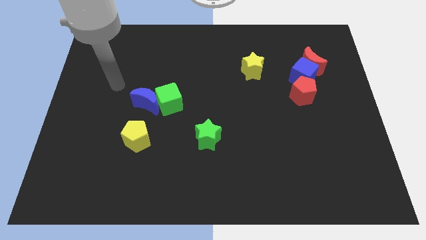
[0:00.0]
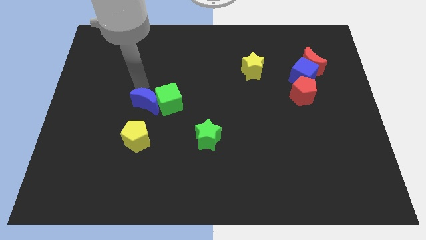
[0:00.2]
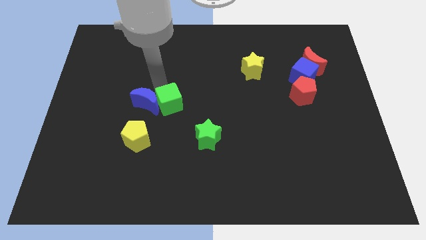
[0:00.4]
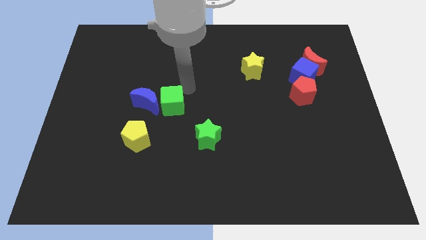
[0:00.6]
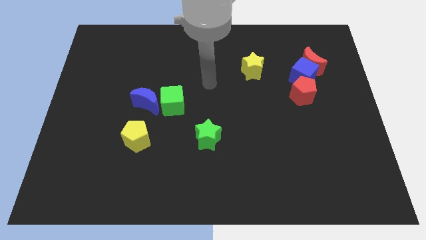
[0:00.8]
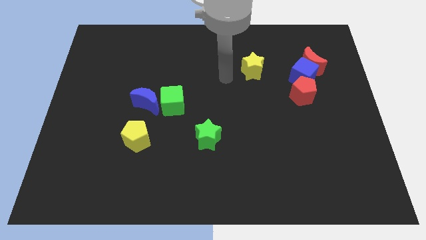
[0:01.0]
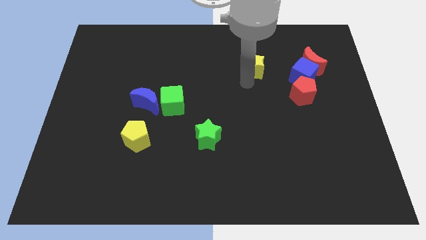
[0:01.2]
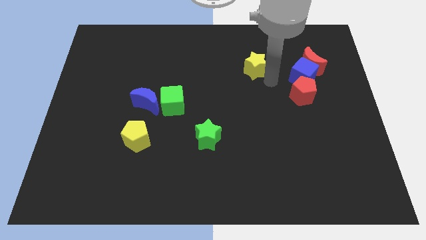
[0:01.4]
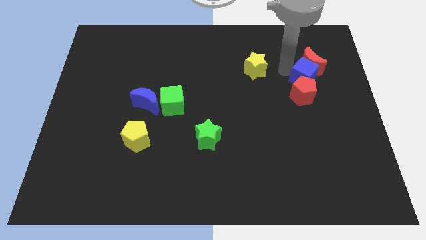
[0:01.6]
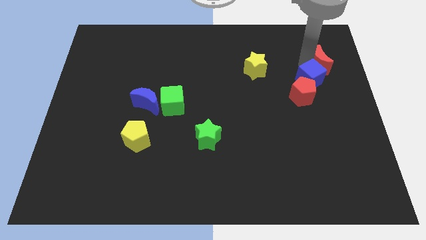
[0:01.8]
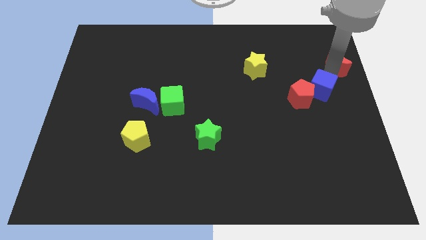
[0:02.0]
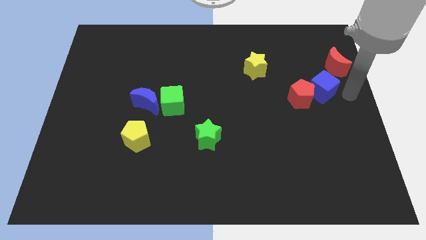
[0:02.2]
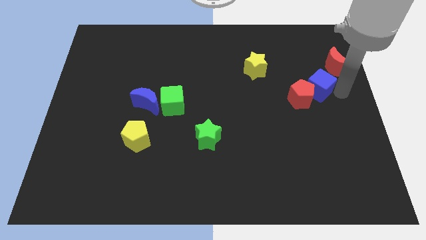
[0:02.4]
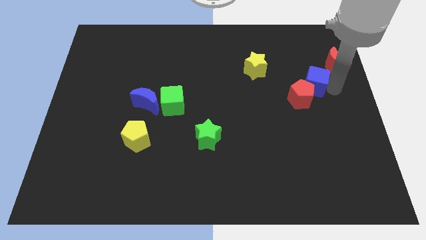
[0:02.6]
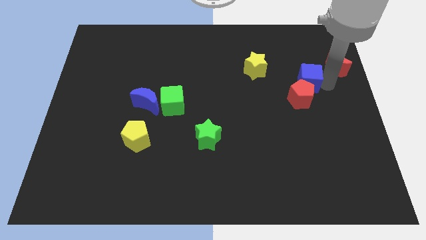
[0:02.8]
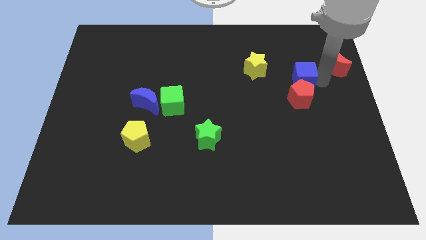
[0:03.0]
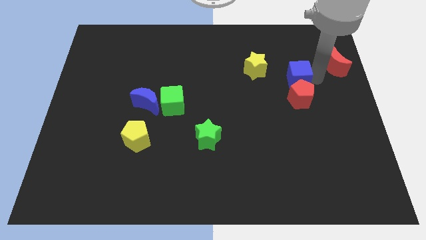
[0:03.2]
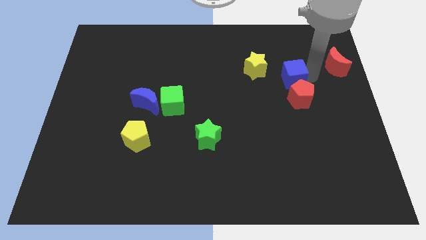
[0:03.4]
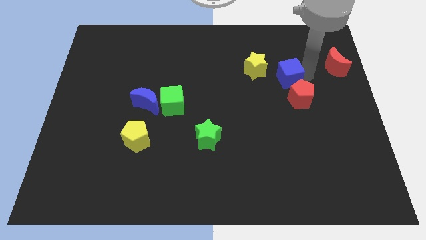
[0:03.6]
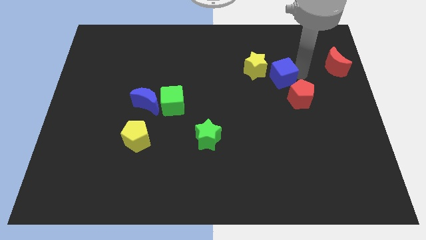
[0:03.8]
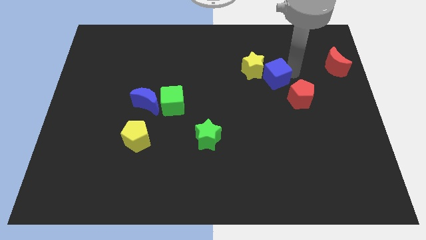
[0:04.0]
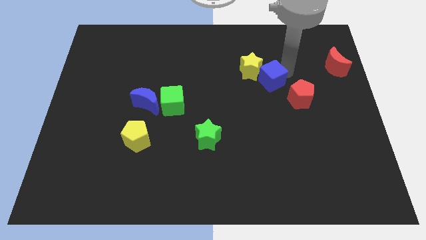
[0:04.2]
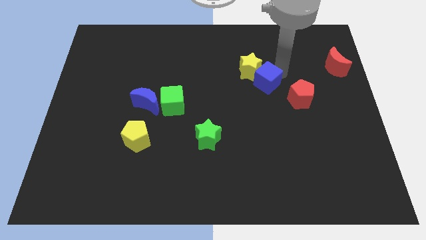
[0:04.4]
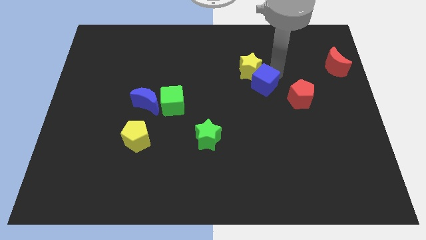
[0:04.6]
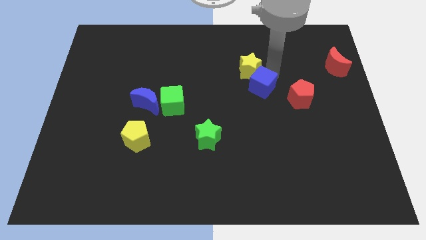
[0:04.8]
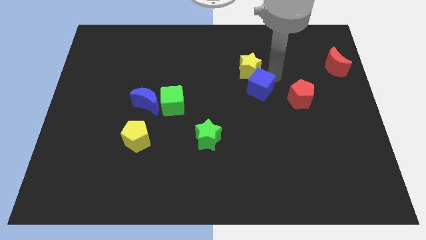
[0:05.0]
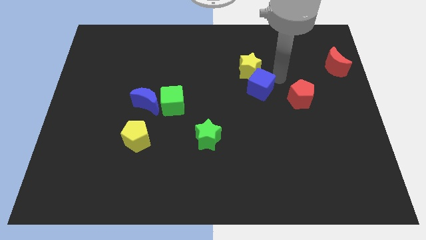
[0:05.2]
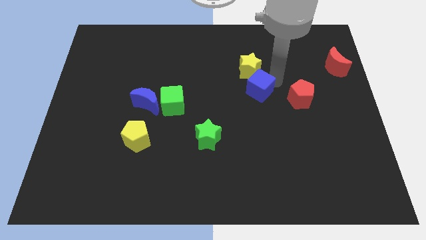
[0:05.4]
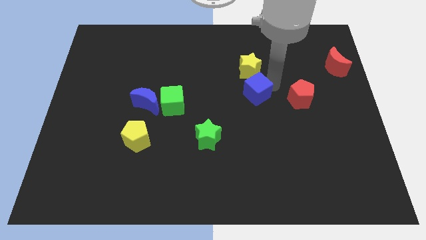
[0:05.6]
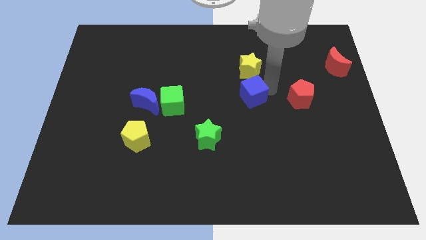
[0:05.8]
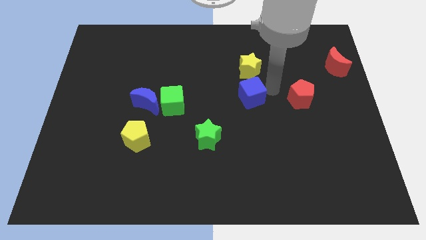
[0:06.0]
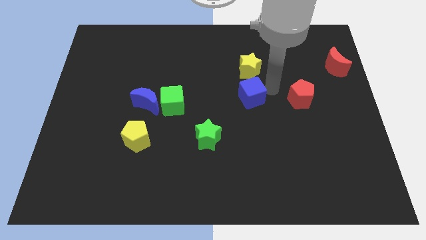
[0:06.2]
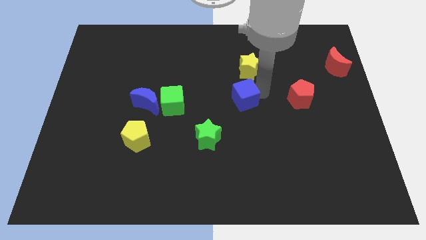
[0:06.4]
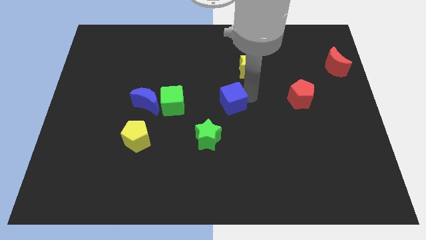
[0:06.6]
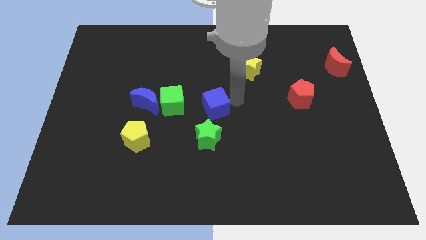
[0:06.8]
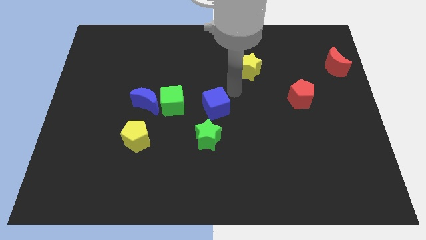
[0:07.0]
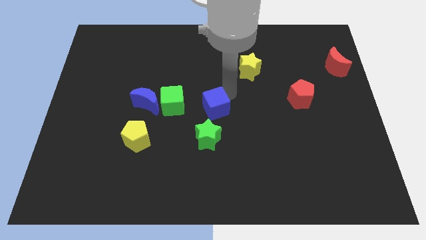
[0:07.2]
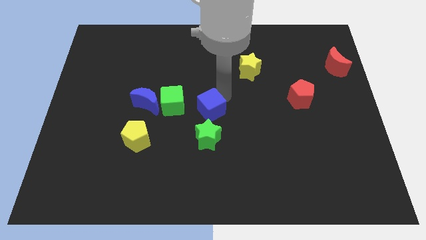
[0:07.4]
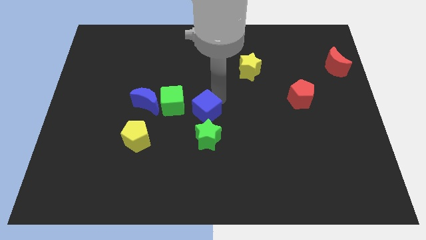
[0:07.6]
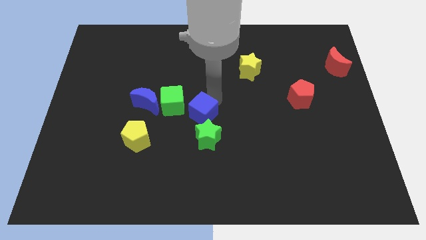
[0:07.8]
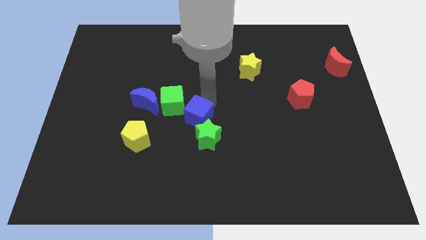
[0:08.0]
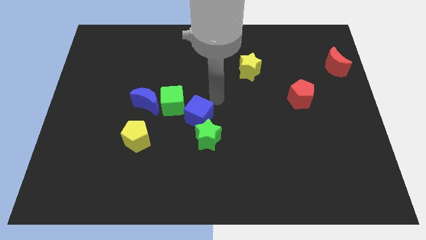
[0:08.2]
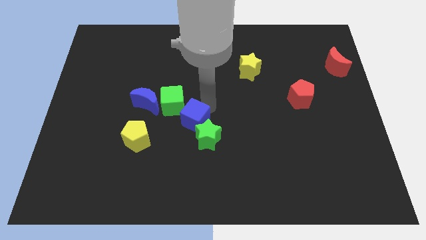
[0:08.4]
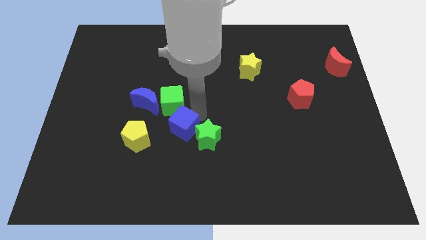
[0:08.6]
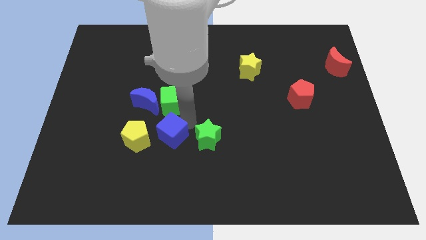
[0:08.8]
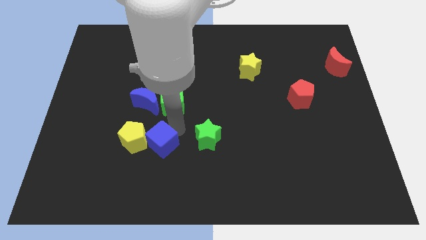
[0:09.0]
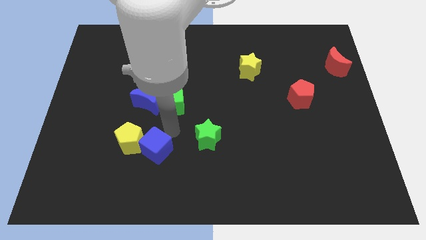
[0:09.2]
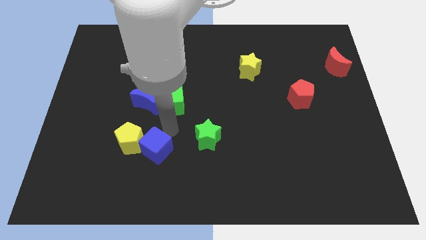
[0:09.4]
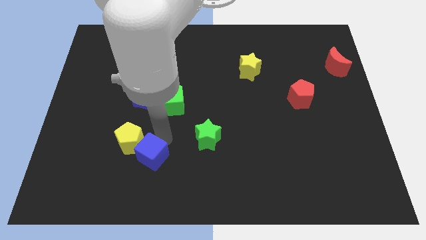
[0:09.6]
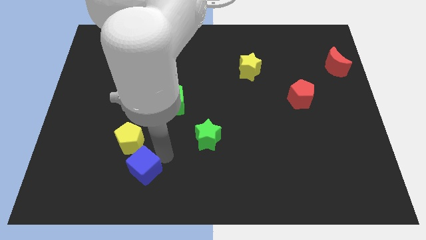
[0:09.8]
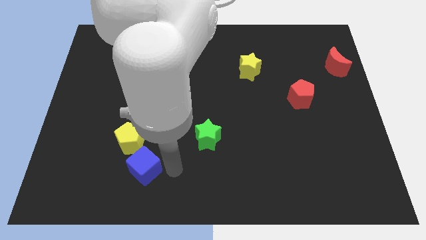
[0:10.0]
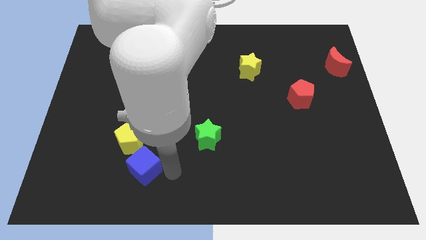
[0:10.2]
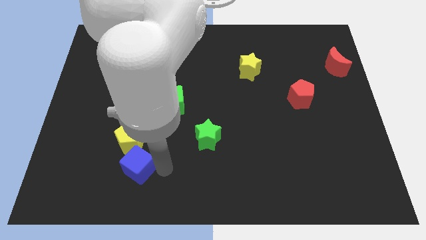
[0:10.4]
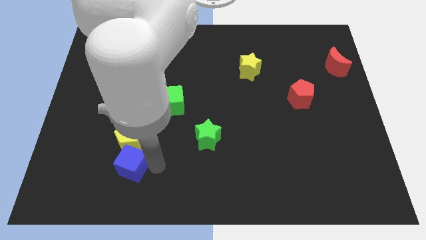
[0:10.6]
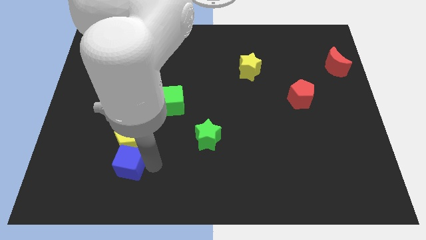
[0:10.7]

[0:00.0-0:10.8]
slide the blue cube to the bottom left side of the yellow pentagon

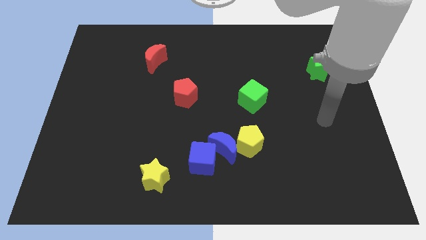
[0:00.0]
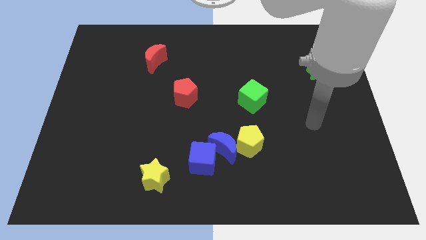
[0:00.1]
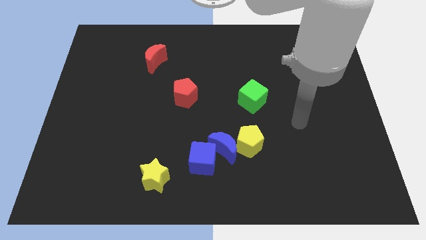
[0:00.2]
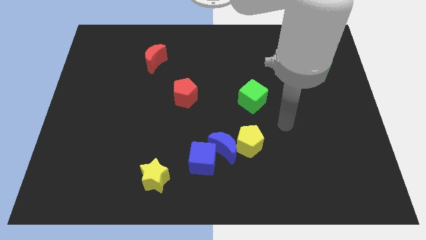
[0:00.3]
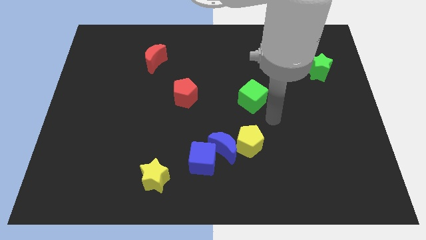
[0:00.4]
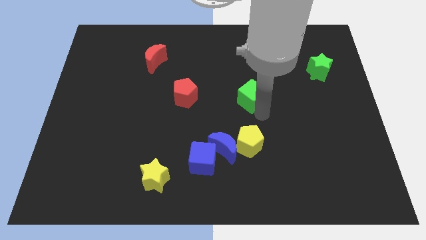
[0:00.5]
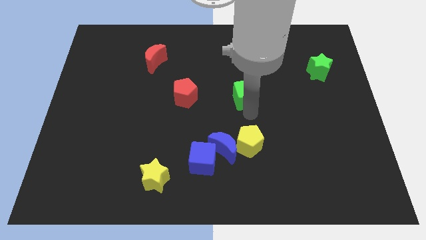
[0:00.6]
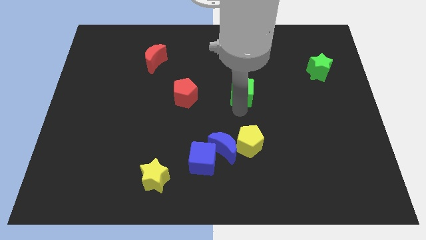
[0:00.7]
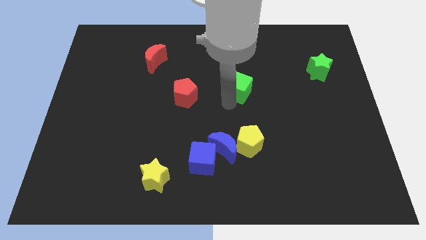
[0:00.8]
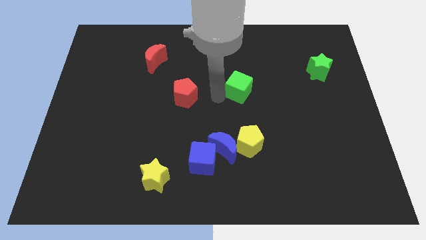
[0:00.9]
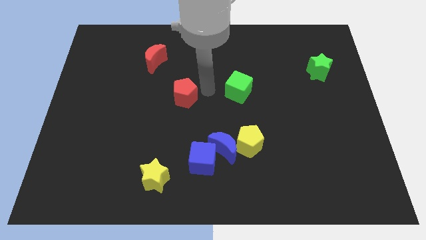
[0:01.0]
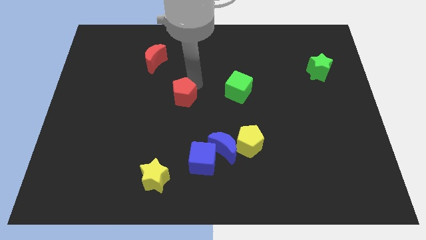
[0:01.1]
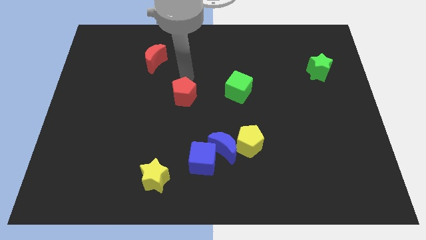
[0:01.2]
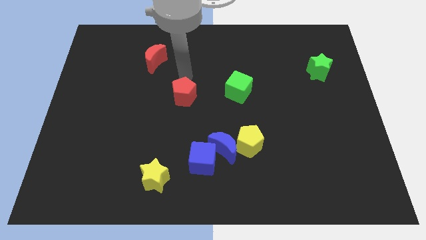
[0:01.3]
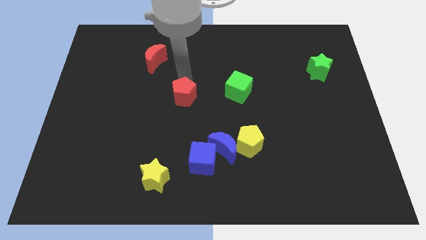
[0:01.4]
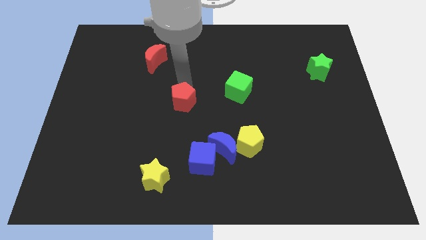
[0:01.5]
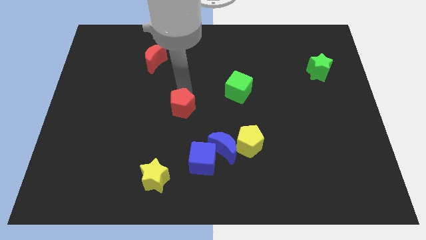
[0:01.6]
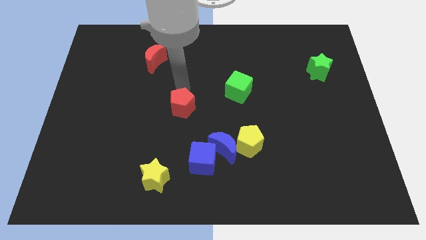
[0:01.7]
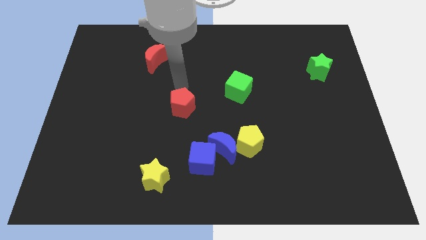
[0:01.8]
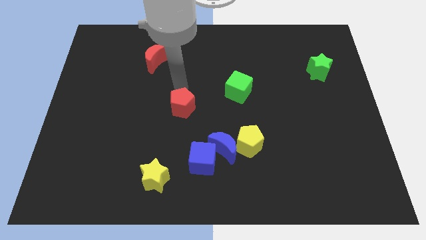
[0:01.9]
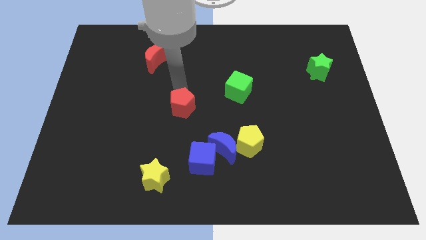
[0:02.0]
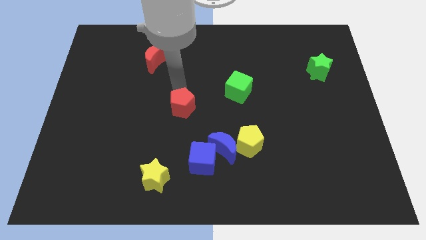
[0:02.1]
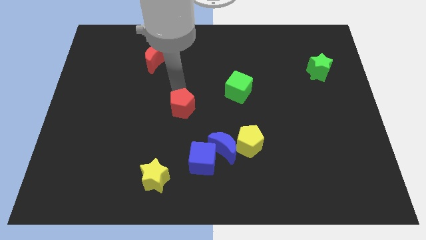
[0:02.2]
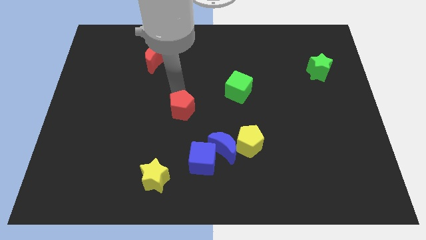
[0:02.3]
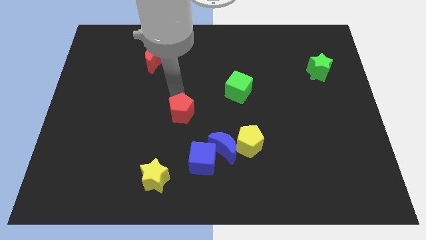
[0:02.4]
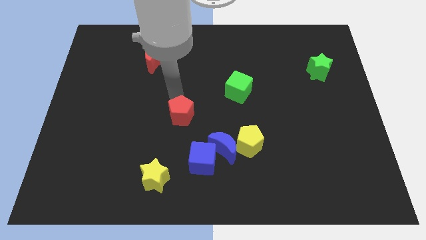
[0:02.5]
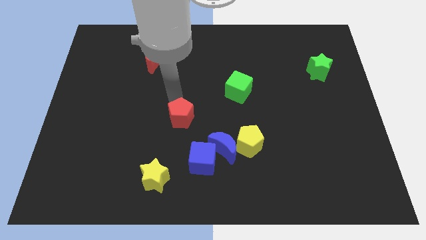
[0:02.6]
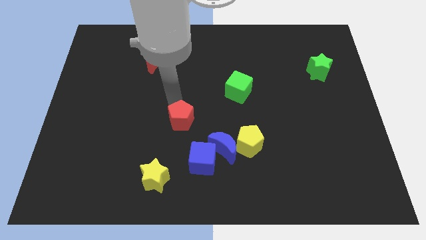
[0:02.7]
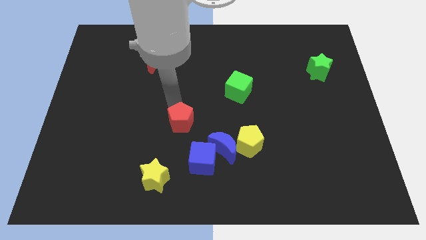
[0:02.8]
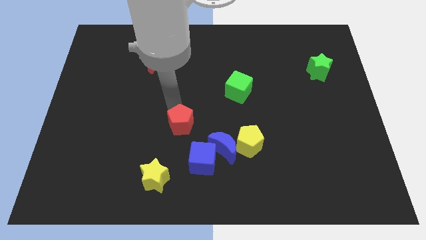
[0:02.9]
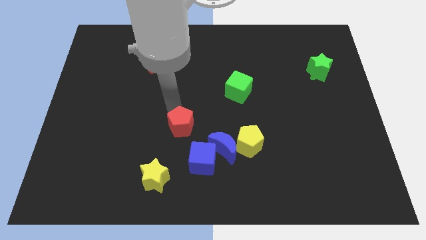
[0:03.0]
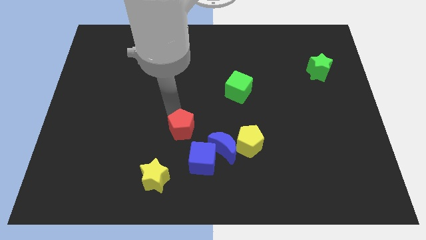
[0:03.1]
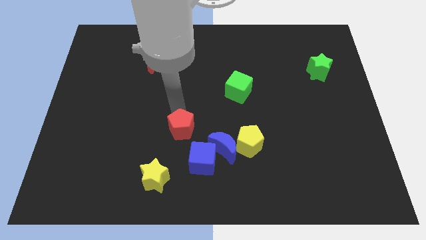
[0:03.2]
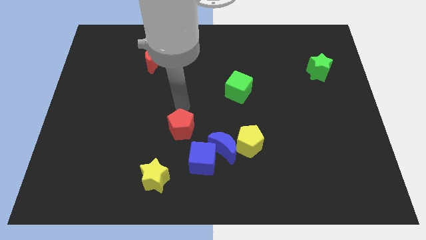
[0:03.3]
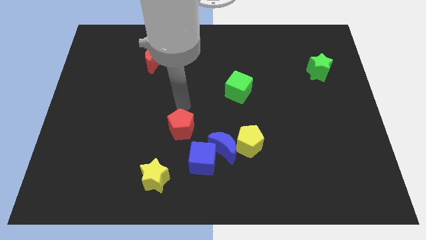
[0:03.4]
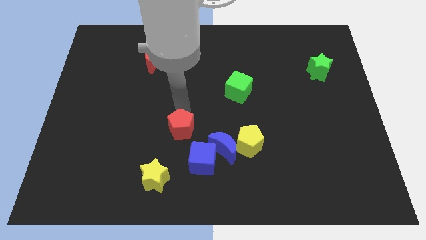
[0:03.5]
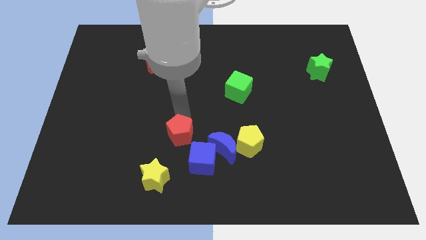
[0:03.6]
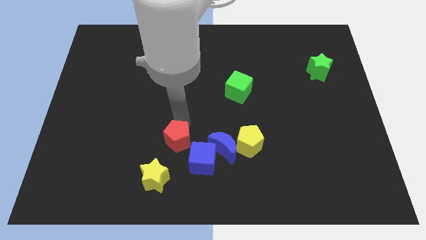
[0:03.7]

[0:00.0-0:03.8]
move the red pentagon diagonally up and to the right of the yellow star
